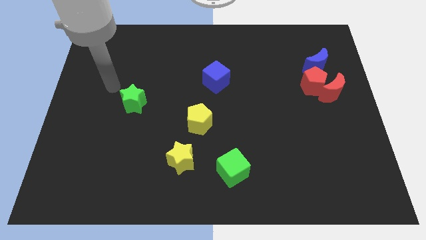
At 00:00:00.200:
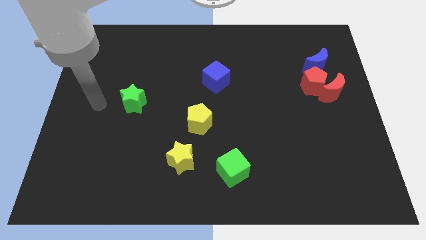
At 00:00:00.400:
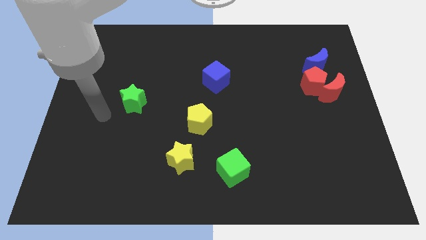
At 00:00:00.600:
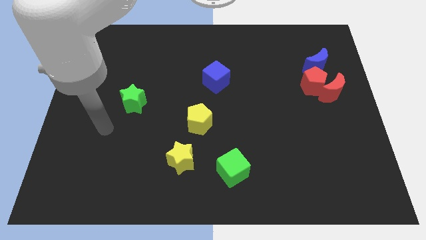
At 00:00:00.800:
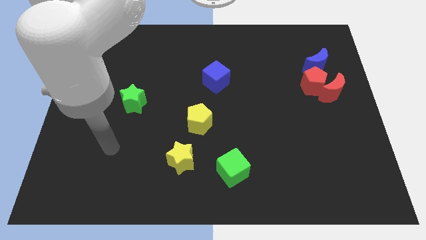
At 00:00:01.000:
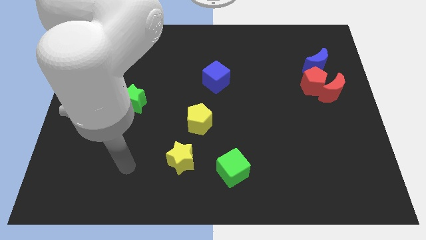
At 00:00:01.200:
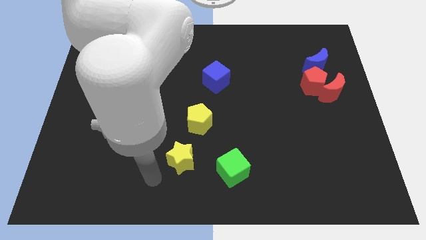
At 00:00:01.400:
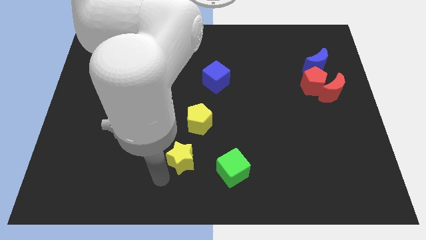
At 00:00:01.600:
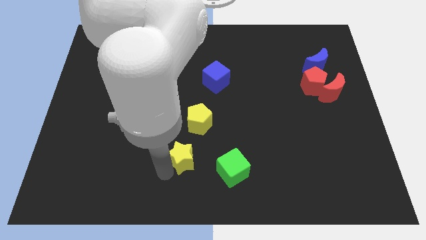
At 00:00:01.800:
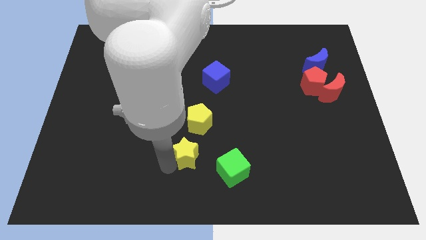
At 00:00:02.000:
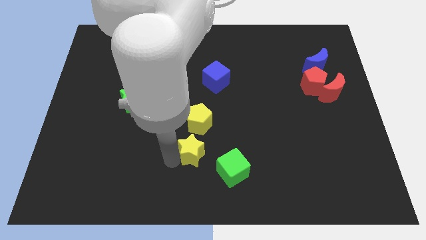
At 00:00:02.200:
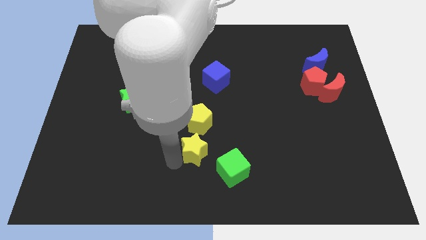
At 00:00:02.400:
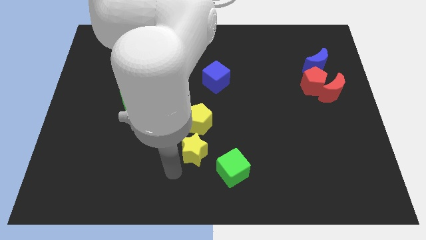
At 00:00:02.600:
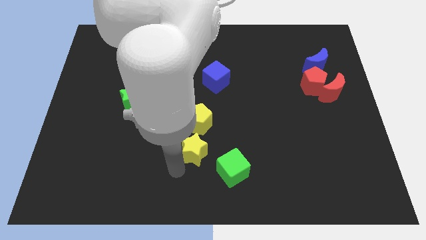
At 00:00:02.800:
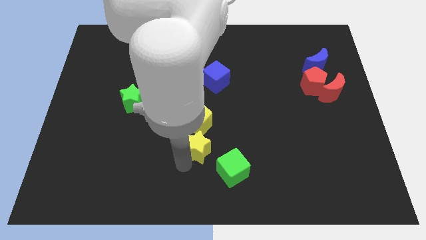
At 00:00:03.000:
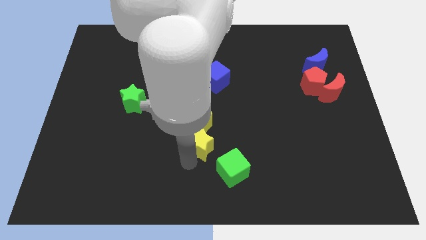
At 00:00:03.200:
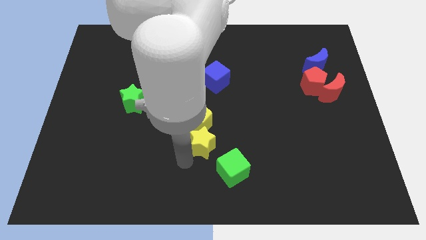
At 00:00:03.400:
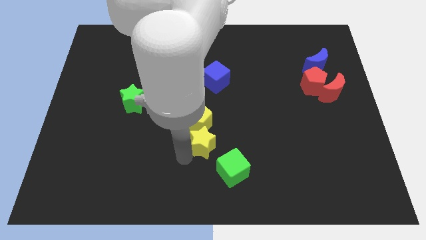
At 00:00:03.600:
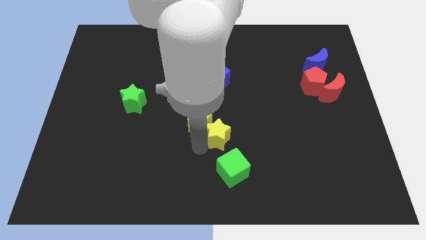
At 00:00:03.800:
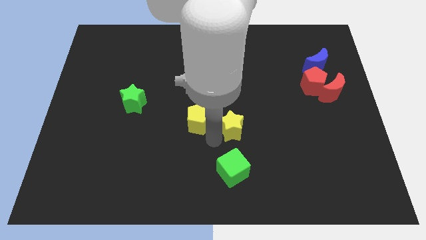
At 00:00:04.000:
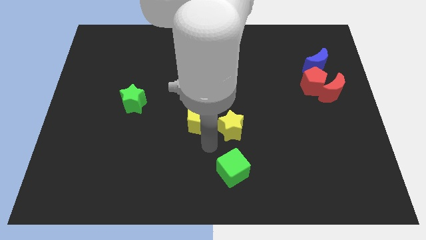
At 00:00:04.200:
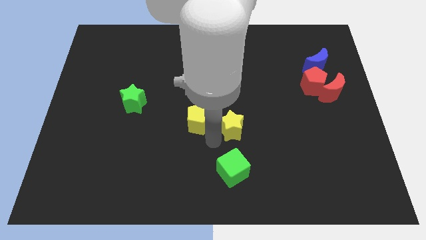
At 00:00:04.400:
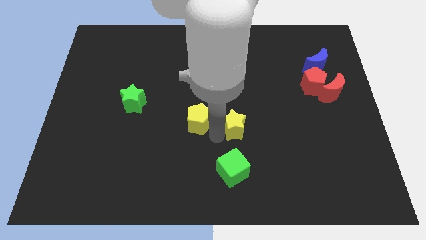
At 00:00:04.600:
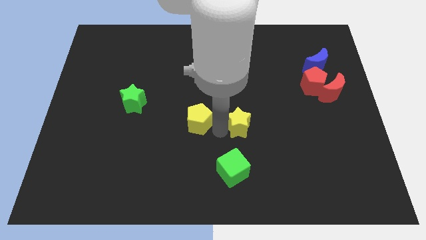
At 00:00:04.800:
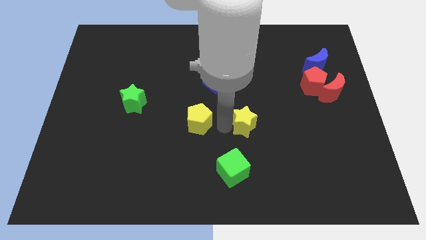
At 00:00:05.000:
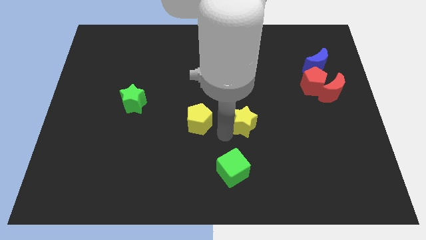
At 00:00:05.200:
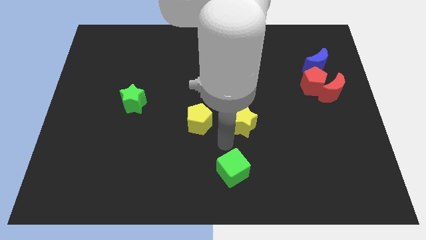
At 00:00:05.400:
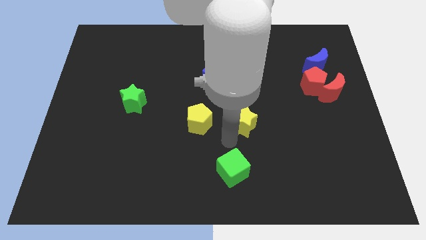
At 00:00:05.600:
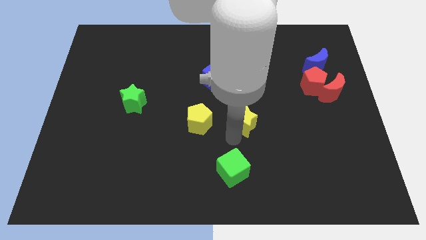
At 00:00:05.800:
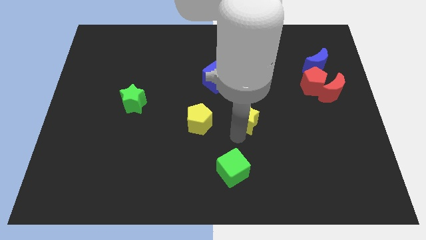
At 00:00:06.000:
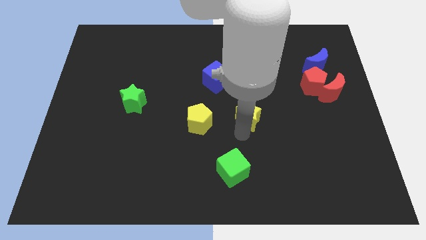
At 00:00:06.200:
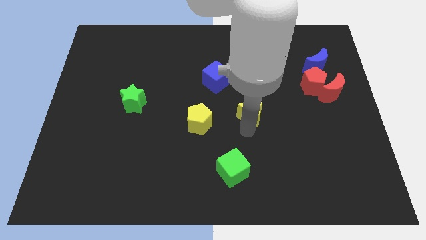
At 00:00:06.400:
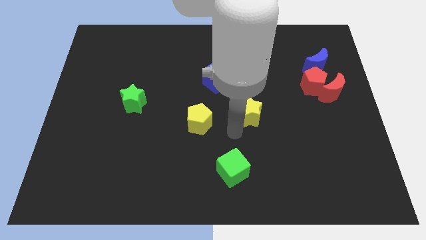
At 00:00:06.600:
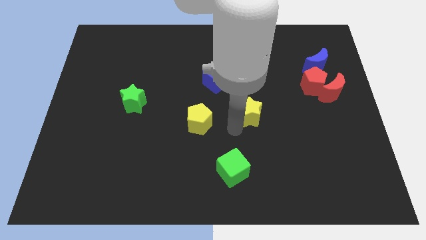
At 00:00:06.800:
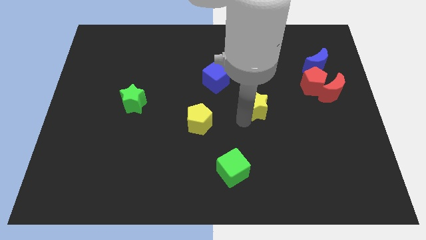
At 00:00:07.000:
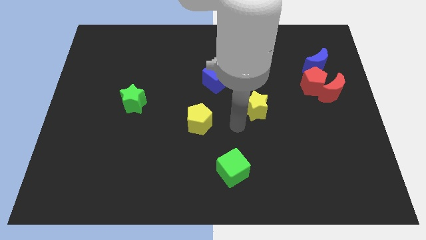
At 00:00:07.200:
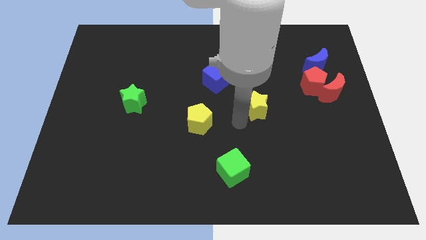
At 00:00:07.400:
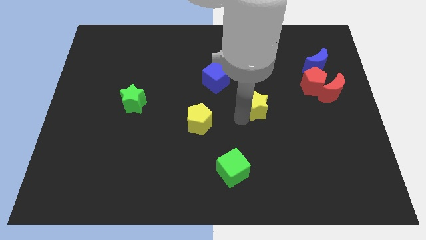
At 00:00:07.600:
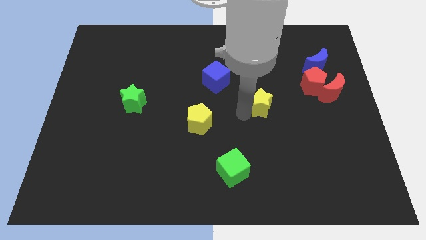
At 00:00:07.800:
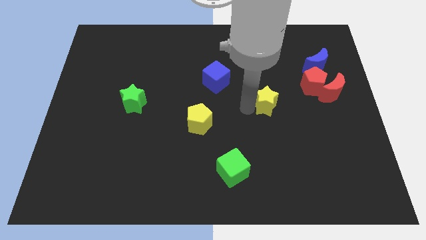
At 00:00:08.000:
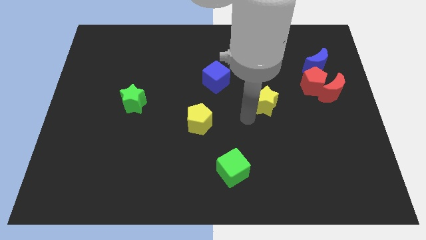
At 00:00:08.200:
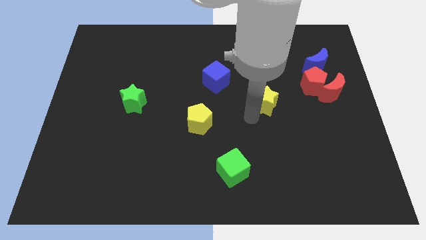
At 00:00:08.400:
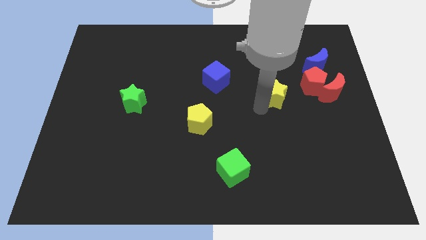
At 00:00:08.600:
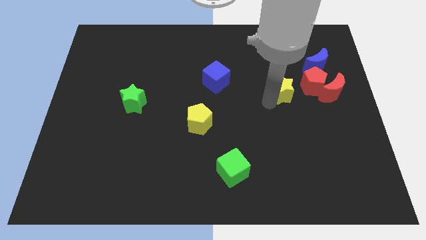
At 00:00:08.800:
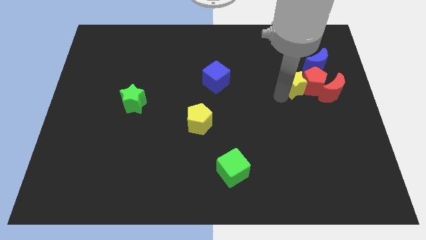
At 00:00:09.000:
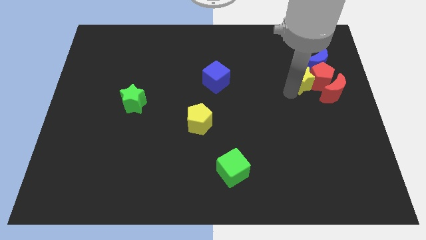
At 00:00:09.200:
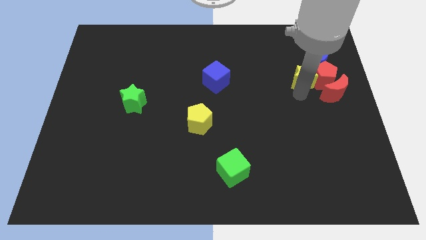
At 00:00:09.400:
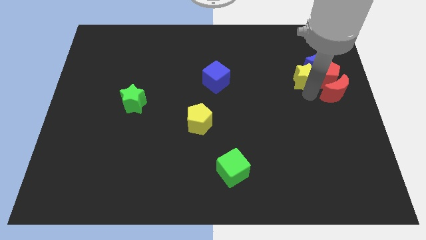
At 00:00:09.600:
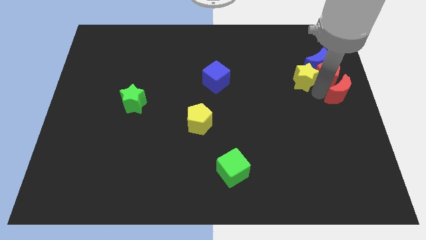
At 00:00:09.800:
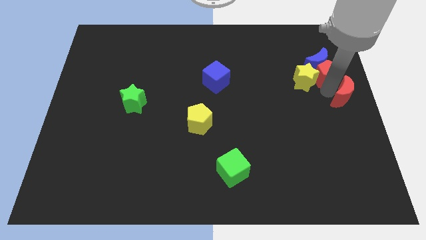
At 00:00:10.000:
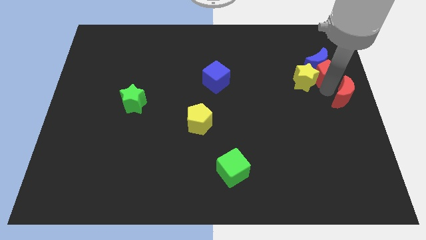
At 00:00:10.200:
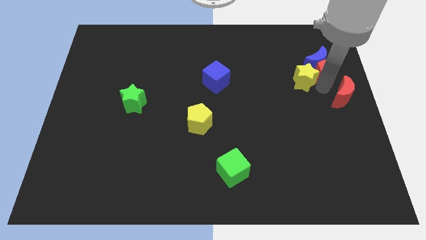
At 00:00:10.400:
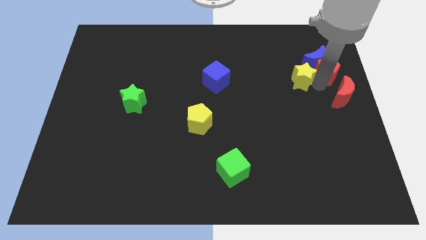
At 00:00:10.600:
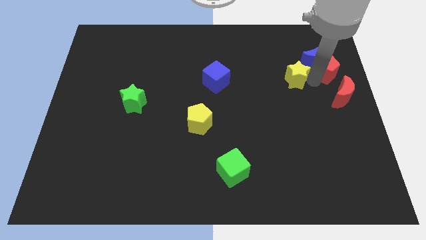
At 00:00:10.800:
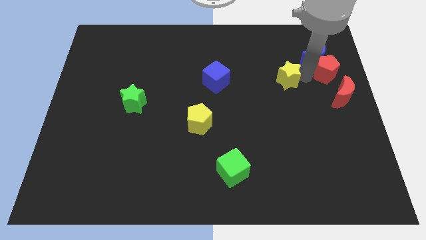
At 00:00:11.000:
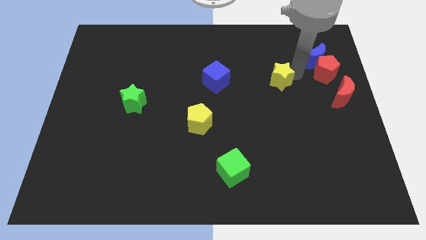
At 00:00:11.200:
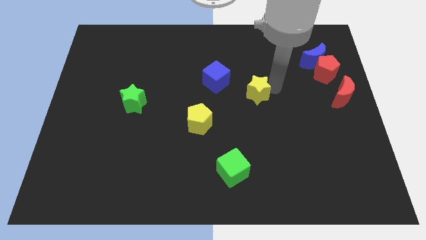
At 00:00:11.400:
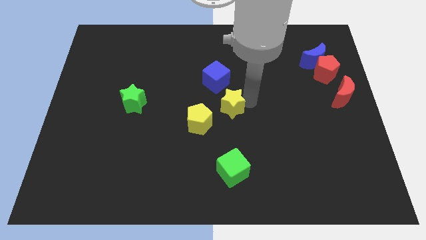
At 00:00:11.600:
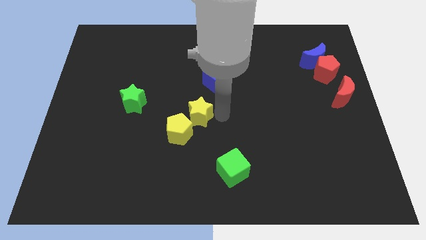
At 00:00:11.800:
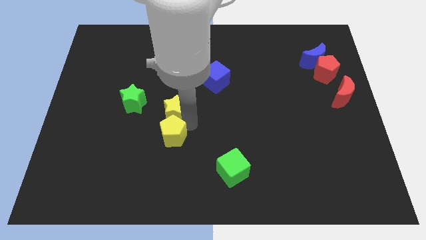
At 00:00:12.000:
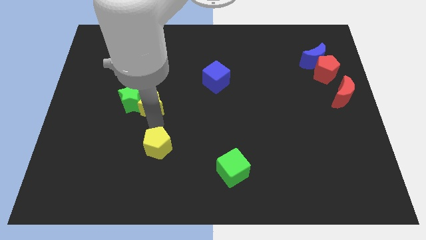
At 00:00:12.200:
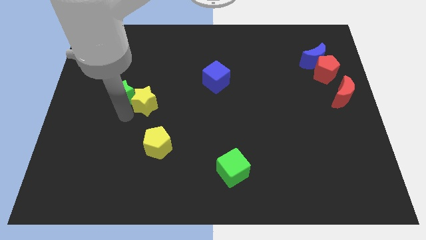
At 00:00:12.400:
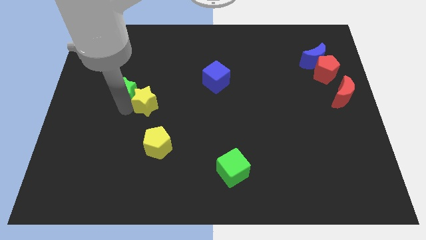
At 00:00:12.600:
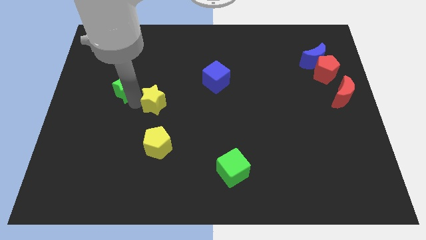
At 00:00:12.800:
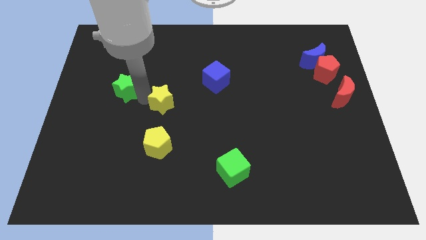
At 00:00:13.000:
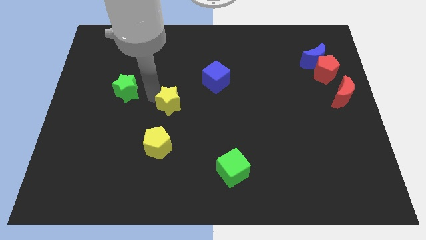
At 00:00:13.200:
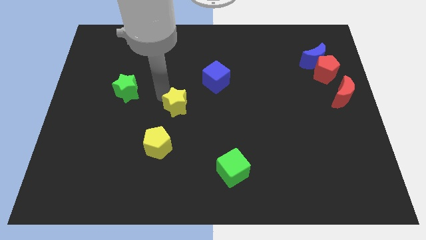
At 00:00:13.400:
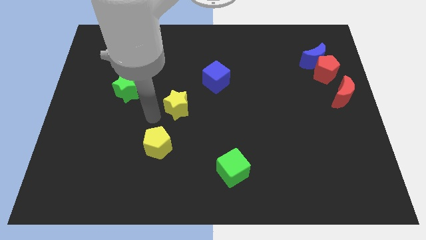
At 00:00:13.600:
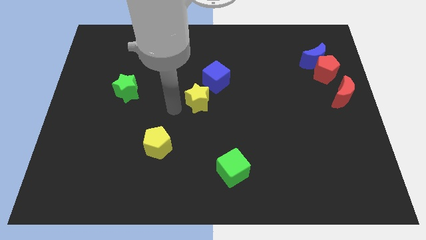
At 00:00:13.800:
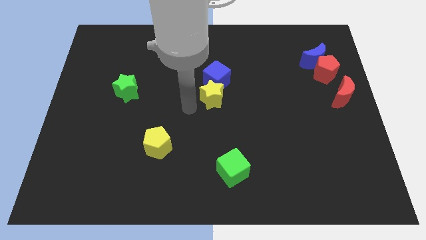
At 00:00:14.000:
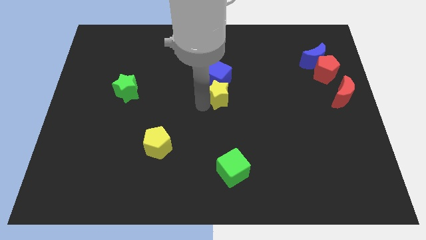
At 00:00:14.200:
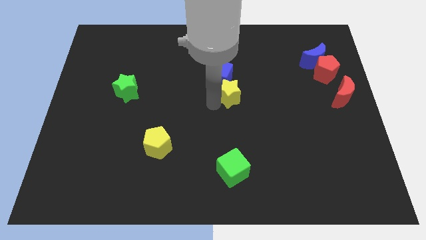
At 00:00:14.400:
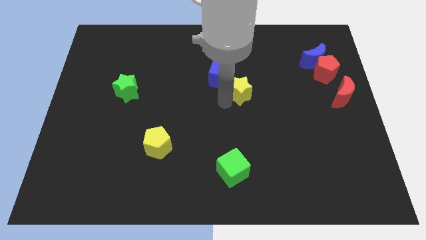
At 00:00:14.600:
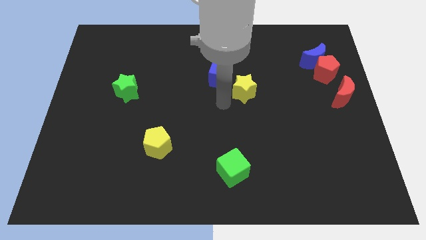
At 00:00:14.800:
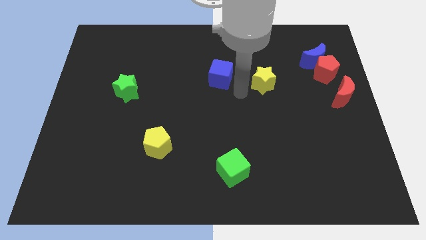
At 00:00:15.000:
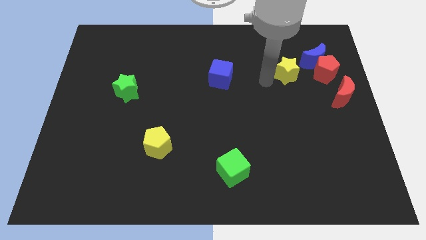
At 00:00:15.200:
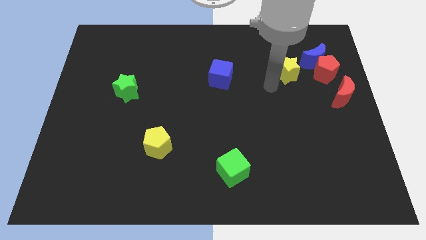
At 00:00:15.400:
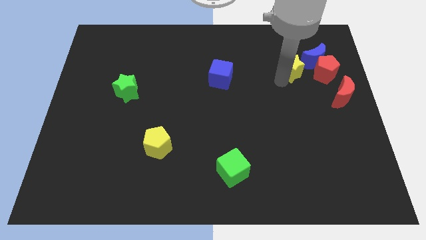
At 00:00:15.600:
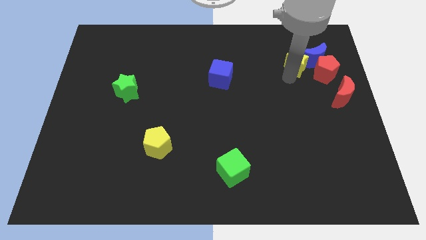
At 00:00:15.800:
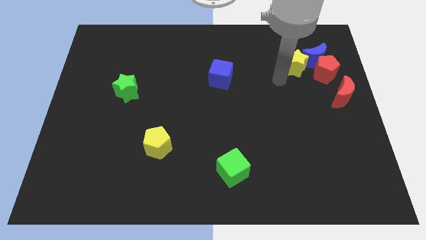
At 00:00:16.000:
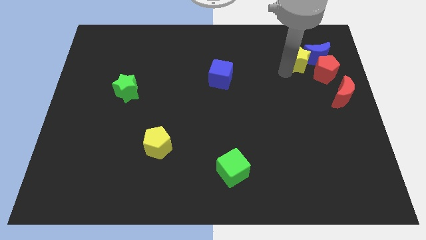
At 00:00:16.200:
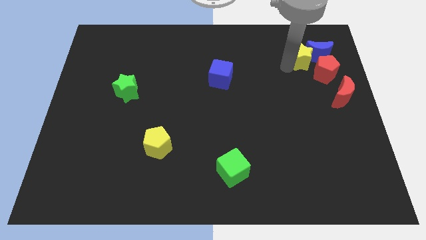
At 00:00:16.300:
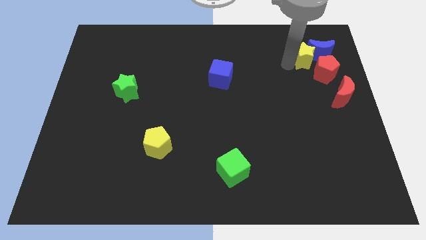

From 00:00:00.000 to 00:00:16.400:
push the yellow star to the top of the red pentagon
